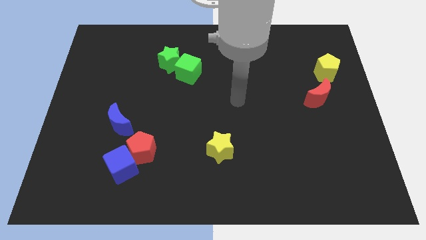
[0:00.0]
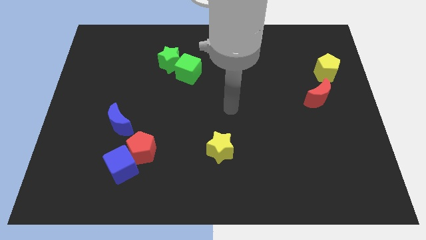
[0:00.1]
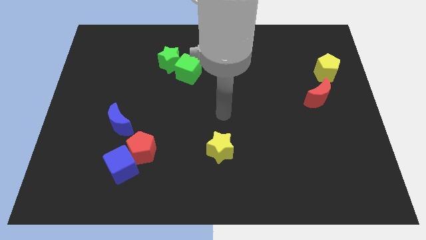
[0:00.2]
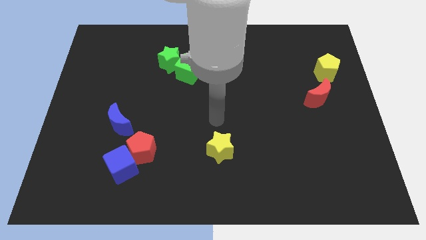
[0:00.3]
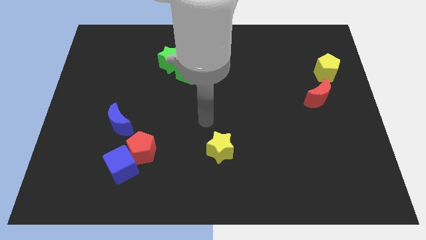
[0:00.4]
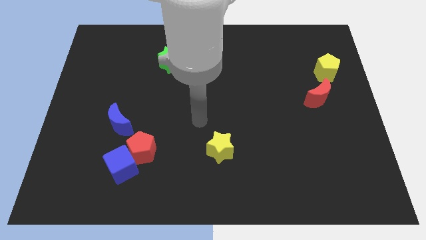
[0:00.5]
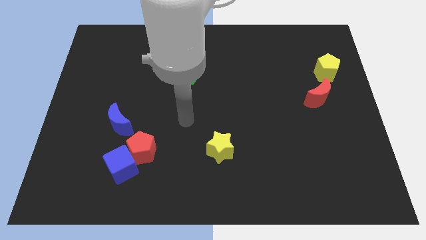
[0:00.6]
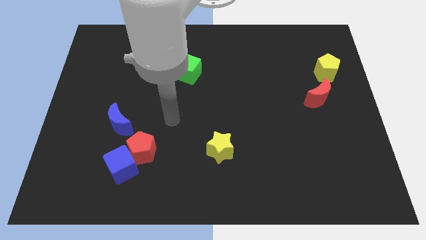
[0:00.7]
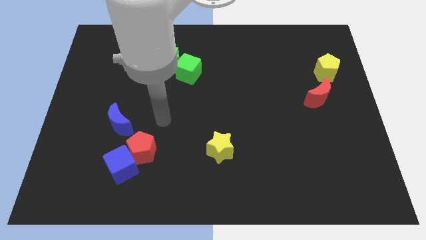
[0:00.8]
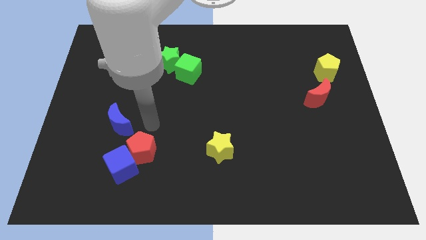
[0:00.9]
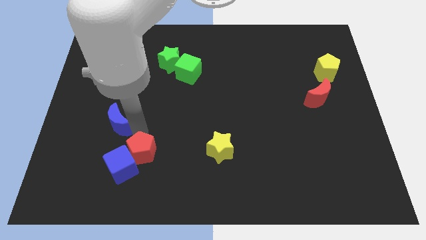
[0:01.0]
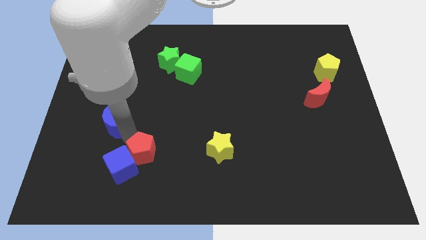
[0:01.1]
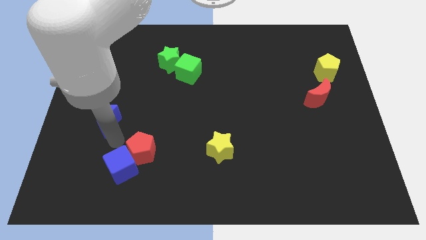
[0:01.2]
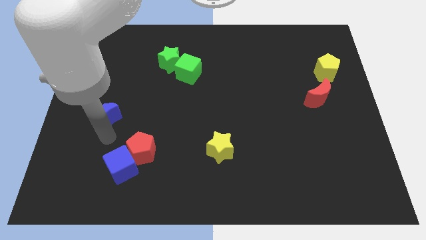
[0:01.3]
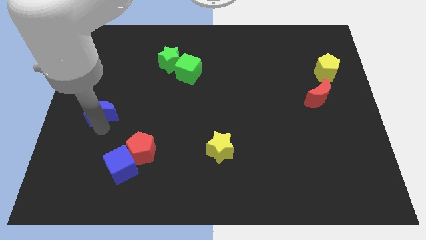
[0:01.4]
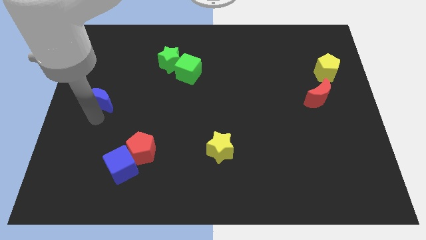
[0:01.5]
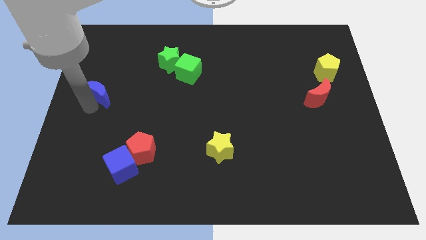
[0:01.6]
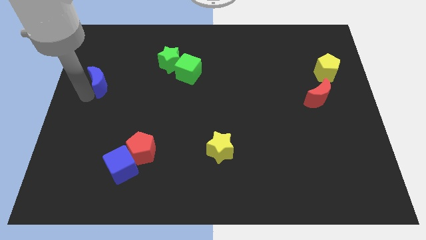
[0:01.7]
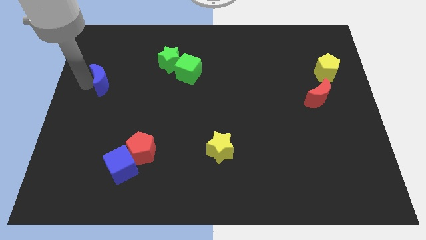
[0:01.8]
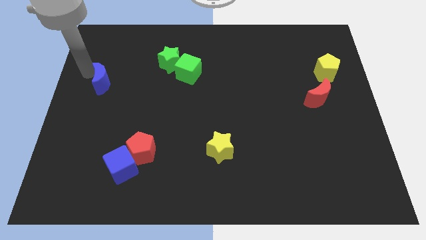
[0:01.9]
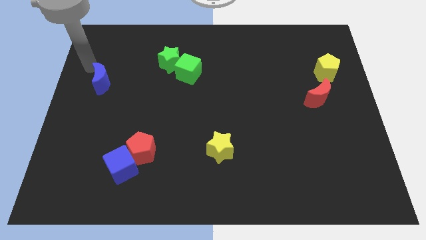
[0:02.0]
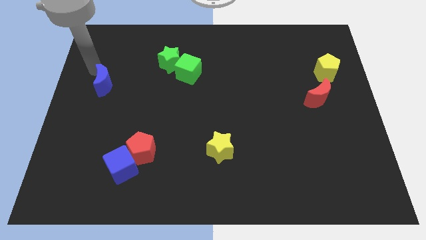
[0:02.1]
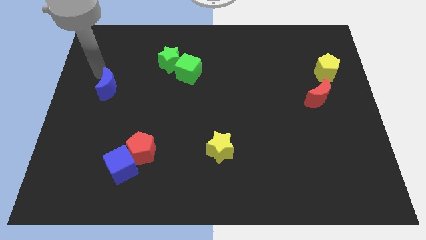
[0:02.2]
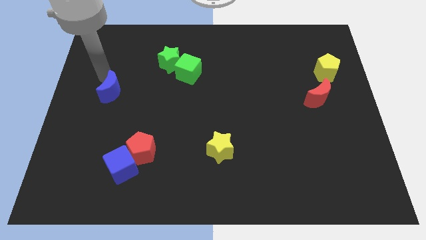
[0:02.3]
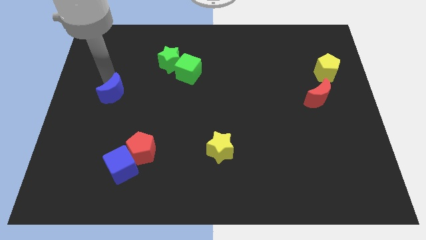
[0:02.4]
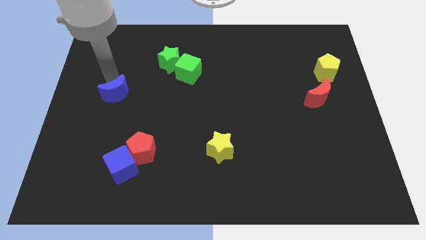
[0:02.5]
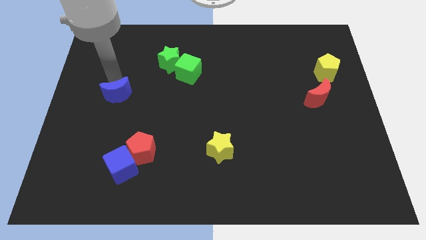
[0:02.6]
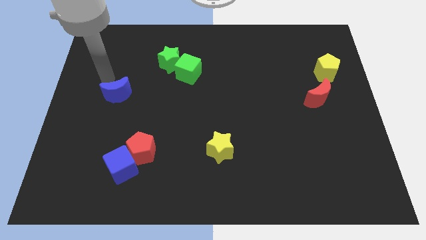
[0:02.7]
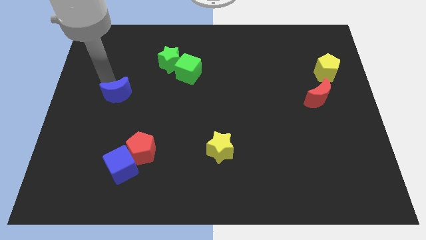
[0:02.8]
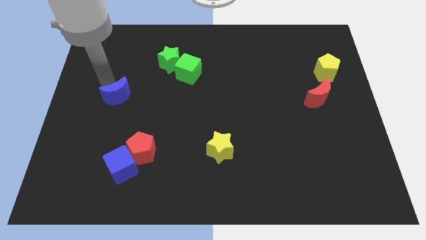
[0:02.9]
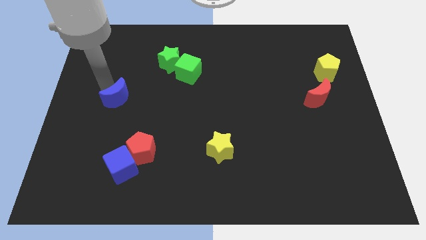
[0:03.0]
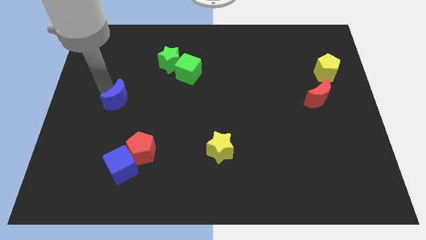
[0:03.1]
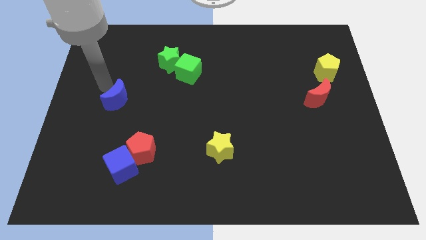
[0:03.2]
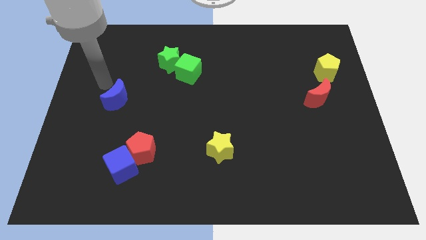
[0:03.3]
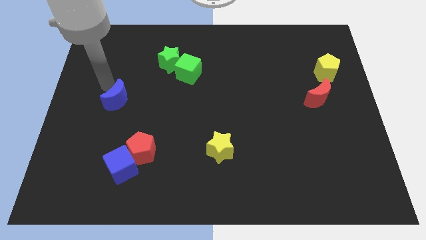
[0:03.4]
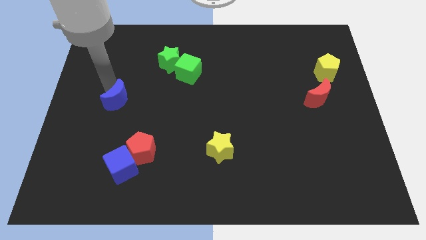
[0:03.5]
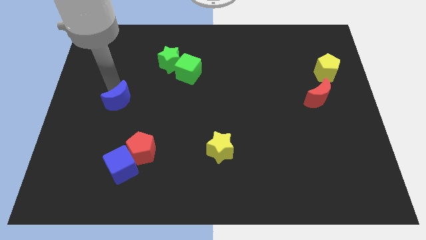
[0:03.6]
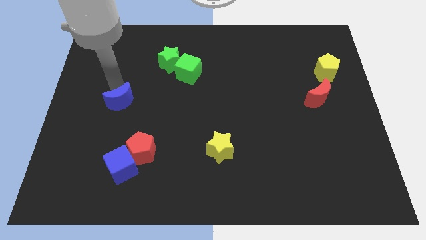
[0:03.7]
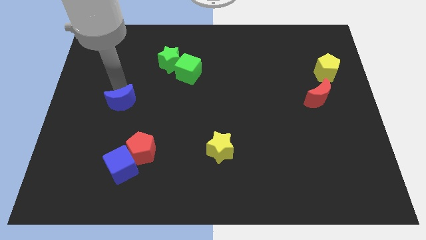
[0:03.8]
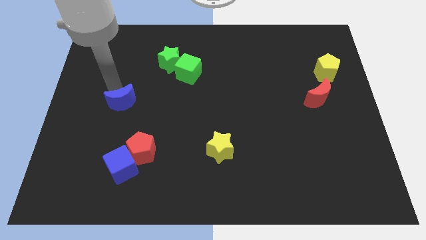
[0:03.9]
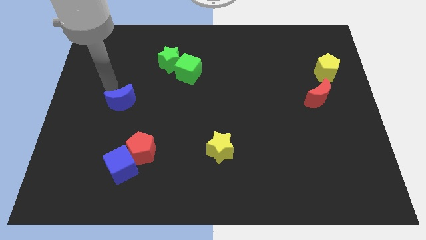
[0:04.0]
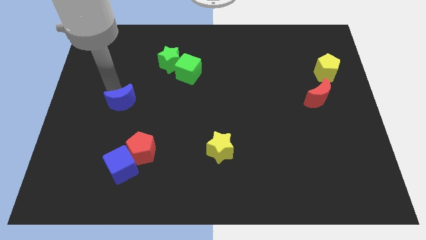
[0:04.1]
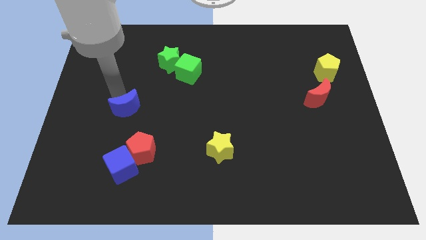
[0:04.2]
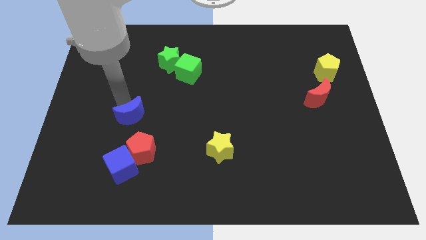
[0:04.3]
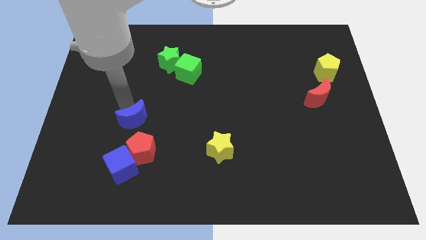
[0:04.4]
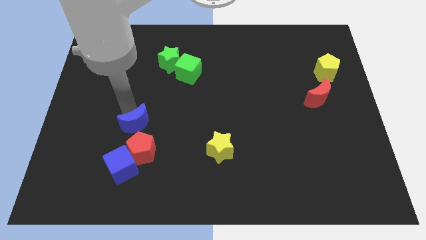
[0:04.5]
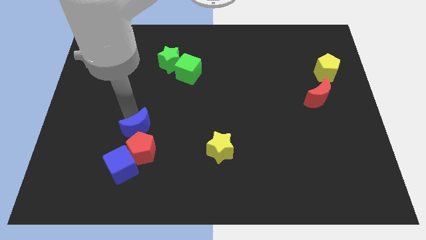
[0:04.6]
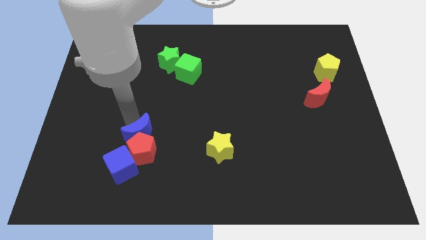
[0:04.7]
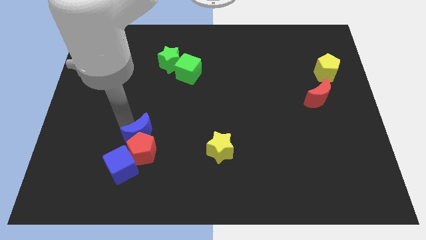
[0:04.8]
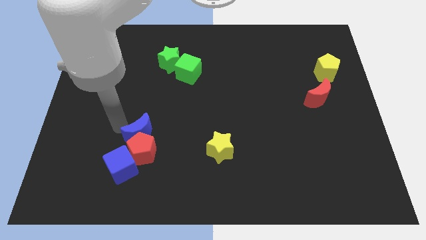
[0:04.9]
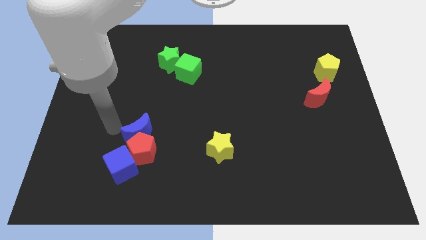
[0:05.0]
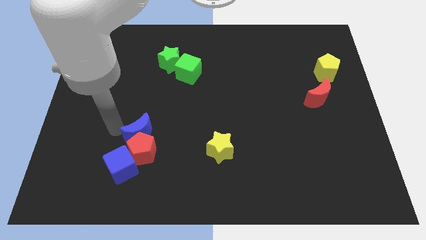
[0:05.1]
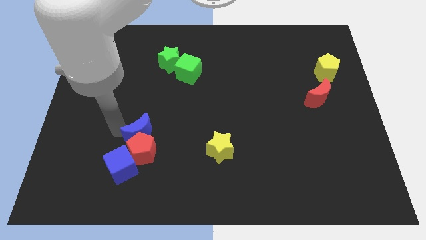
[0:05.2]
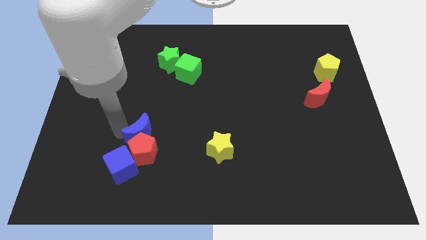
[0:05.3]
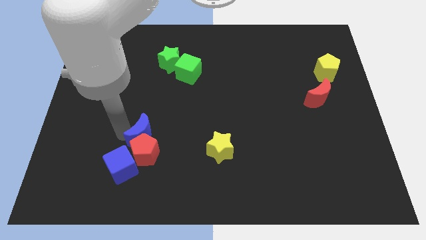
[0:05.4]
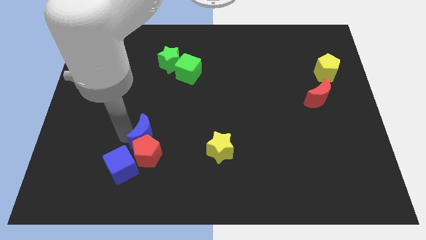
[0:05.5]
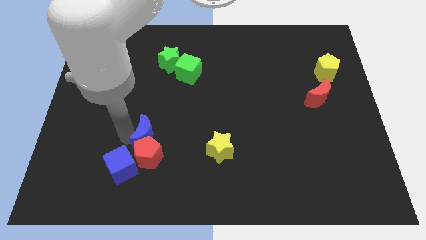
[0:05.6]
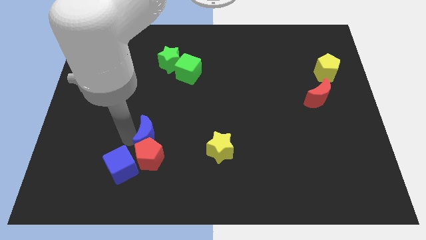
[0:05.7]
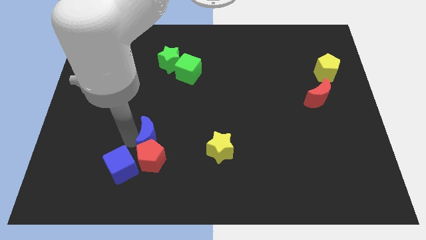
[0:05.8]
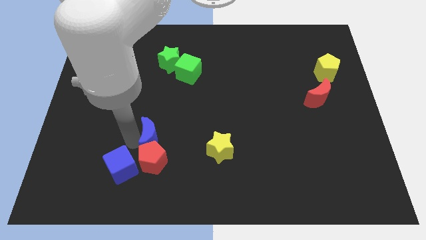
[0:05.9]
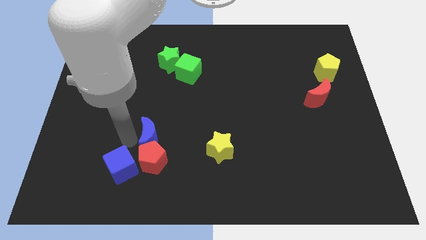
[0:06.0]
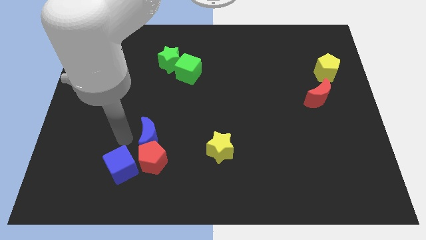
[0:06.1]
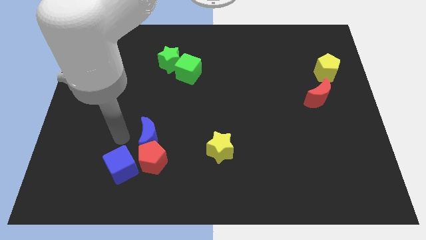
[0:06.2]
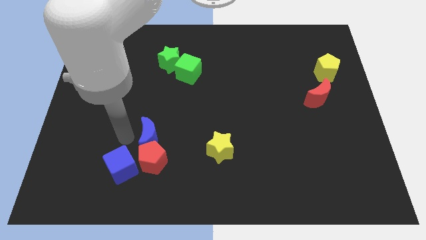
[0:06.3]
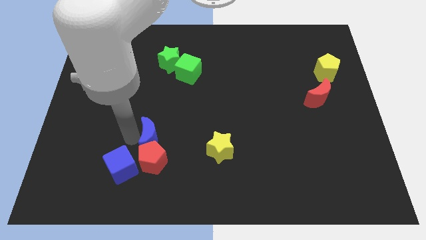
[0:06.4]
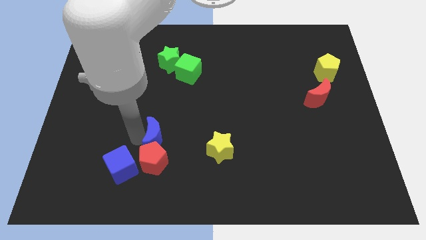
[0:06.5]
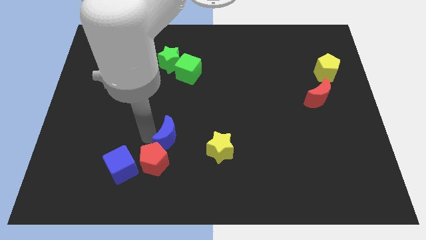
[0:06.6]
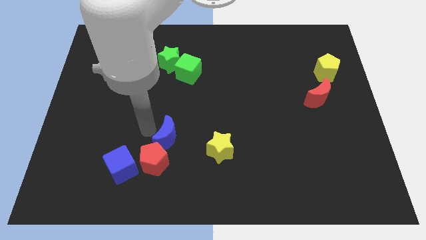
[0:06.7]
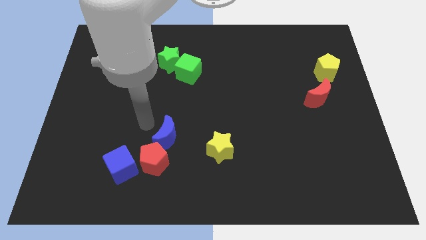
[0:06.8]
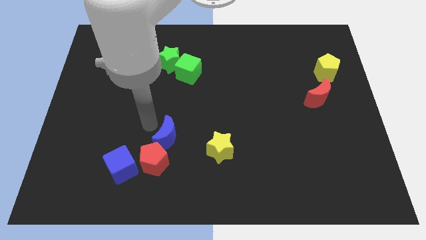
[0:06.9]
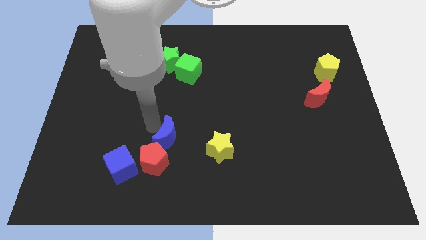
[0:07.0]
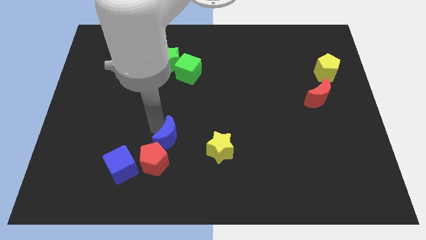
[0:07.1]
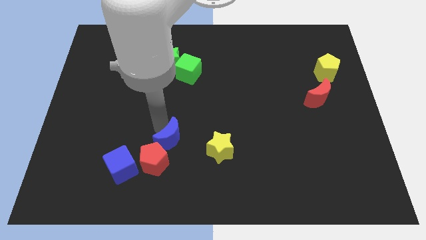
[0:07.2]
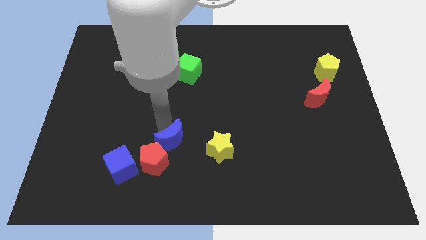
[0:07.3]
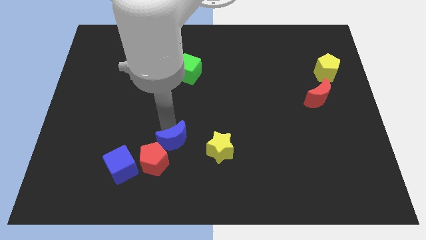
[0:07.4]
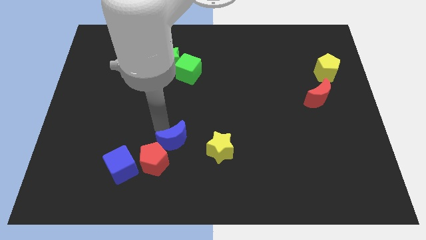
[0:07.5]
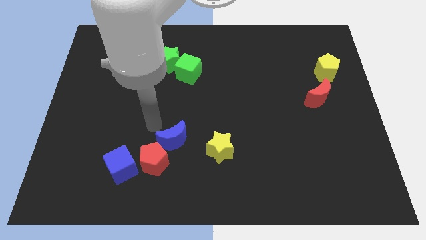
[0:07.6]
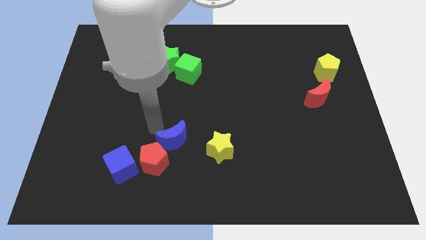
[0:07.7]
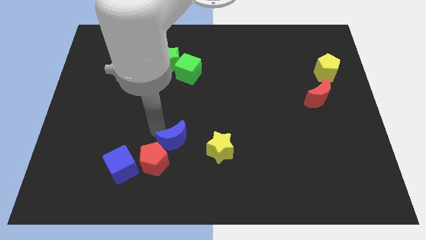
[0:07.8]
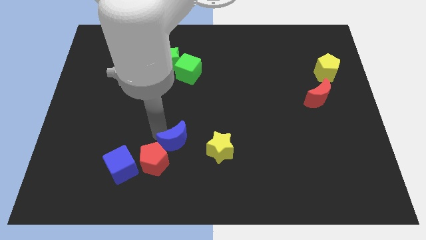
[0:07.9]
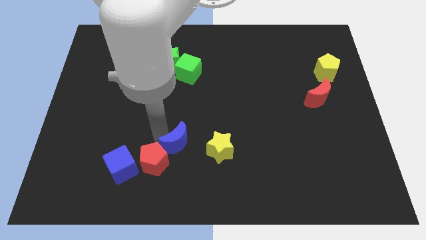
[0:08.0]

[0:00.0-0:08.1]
put the blue moon to the right side of the red pentagon
